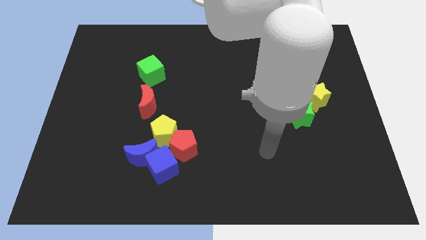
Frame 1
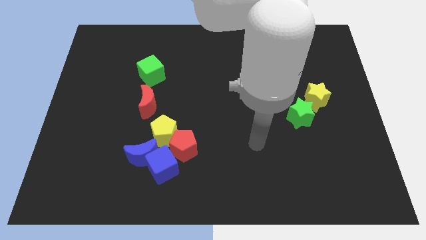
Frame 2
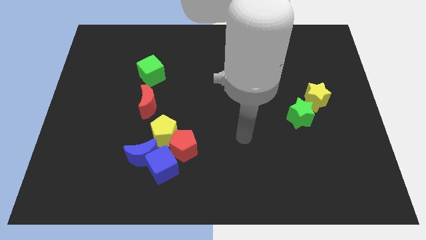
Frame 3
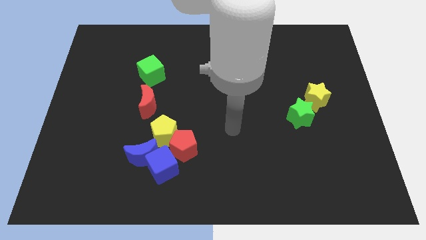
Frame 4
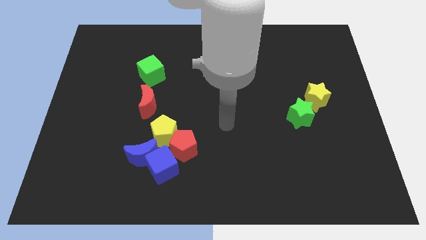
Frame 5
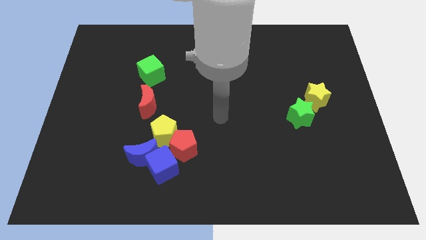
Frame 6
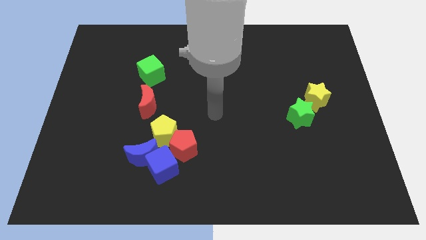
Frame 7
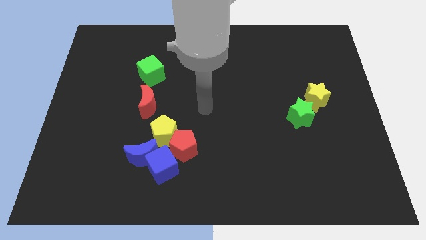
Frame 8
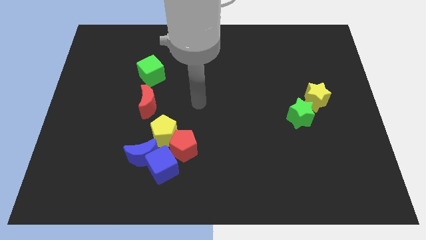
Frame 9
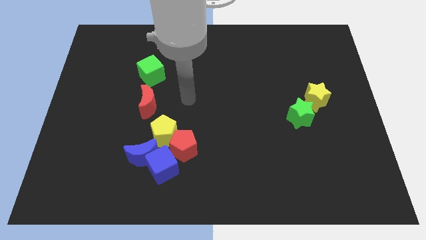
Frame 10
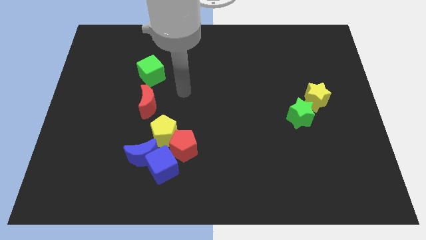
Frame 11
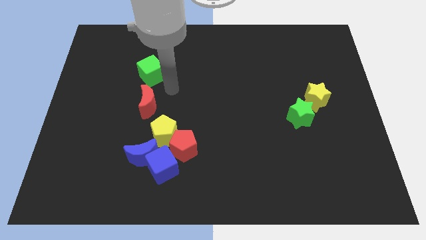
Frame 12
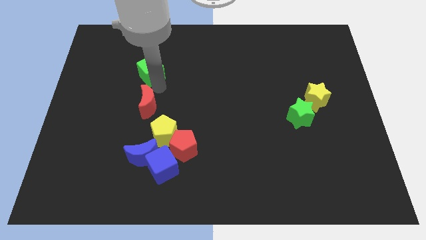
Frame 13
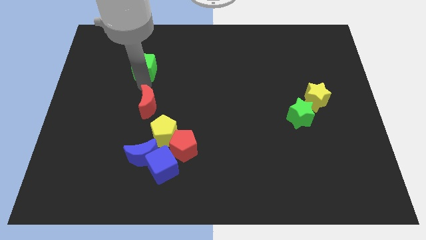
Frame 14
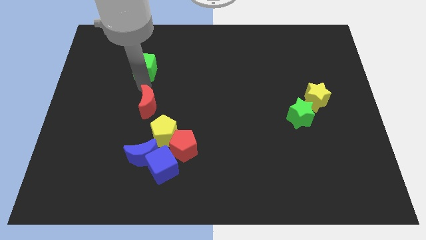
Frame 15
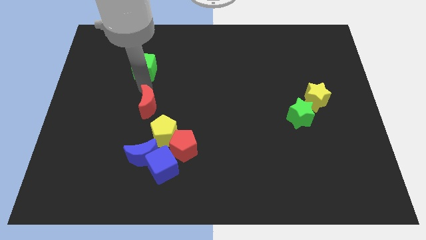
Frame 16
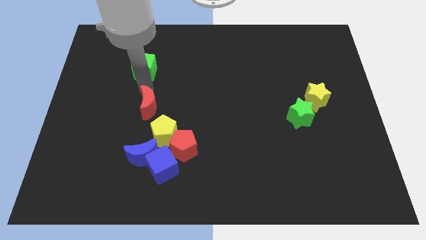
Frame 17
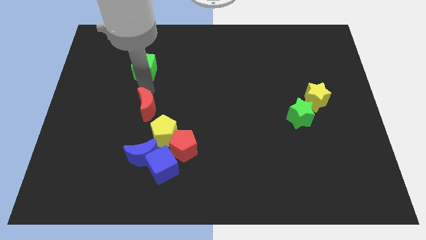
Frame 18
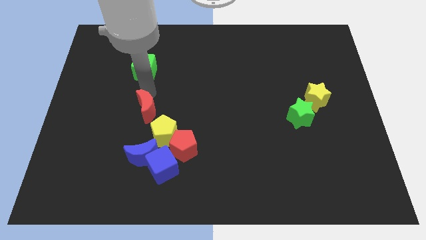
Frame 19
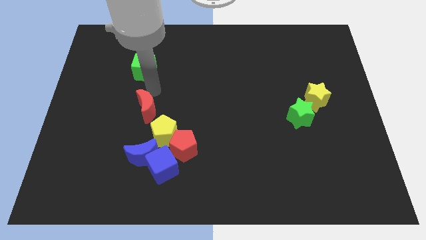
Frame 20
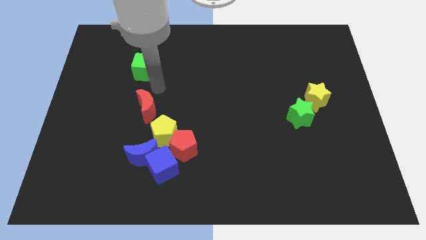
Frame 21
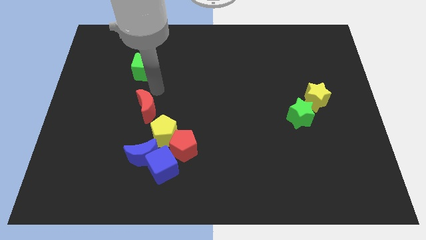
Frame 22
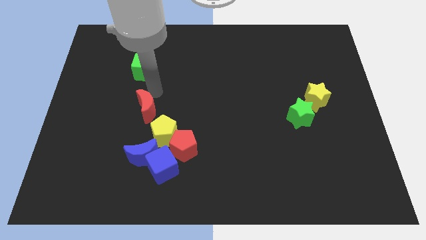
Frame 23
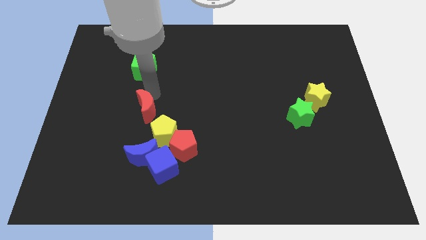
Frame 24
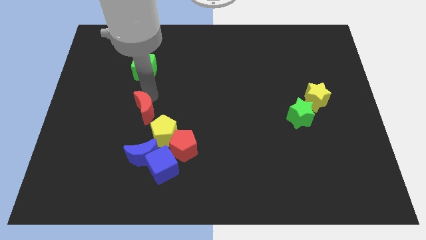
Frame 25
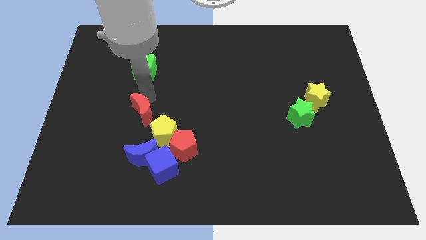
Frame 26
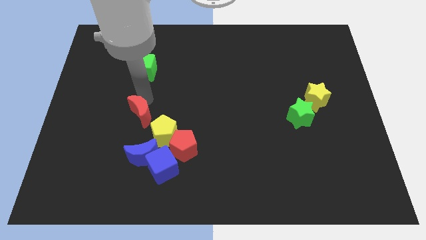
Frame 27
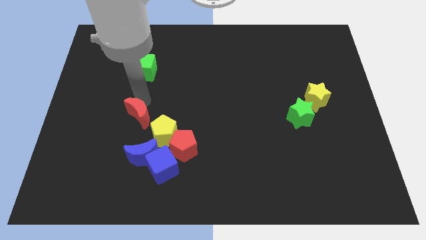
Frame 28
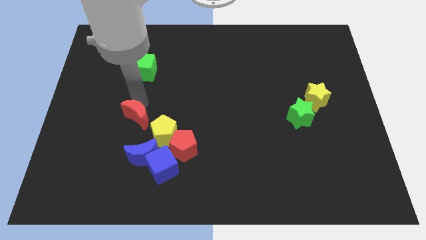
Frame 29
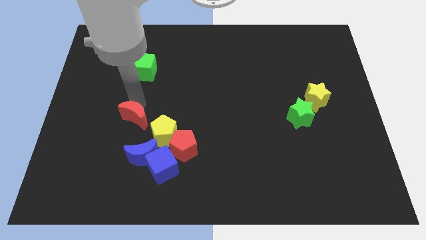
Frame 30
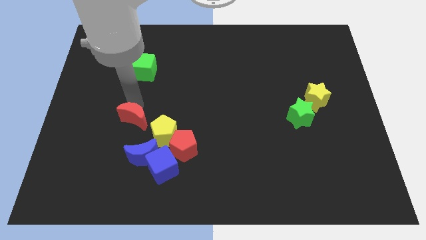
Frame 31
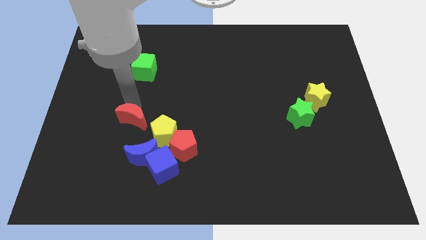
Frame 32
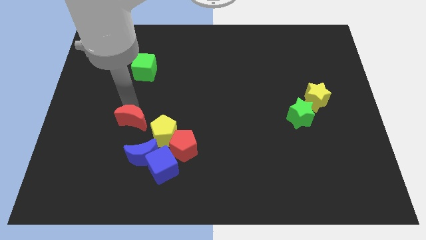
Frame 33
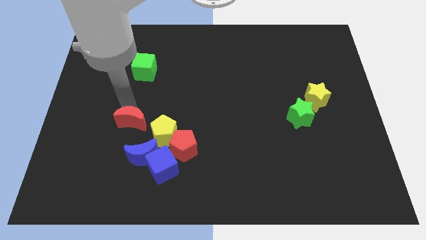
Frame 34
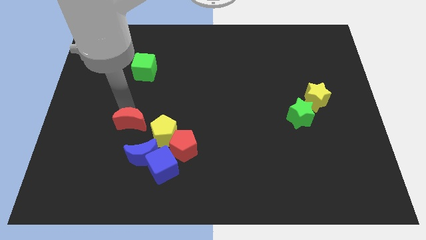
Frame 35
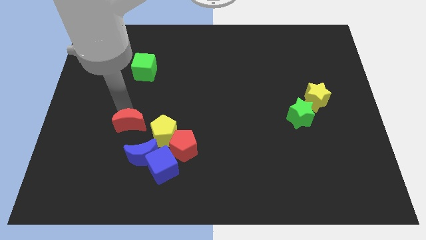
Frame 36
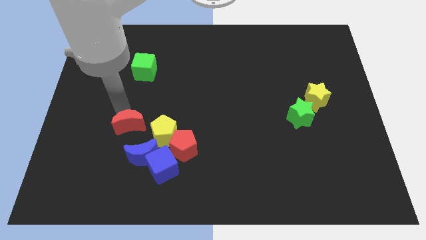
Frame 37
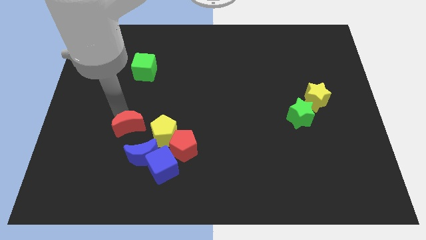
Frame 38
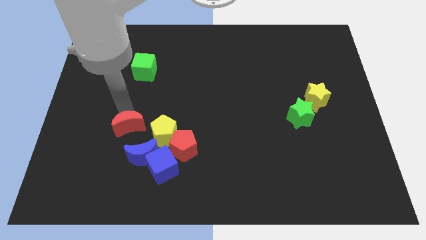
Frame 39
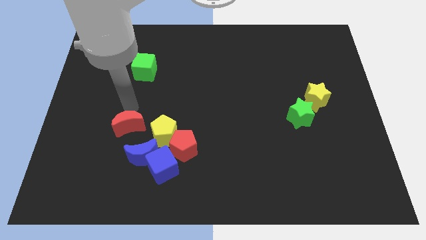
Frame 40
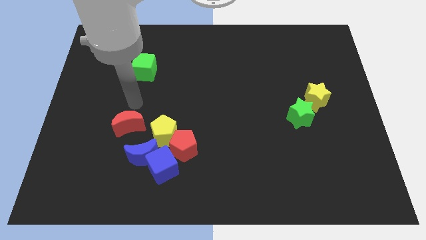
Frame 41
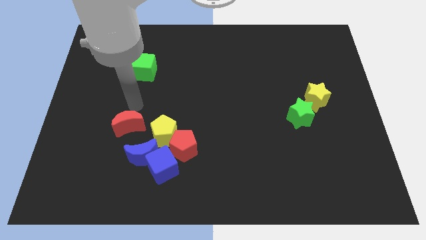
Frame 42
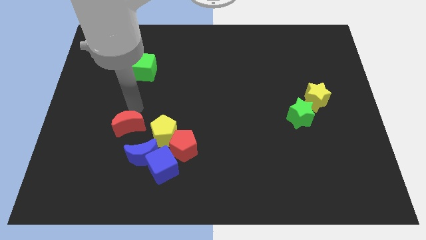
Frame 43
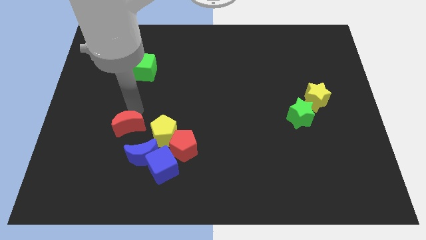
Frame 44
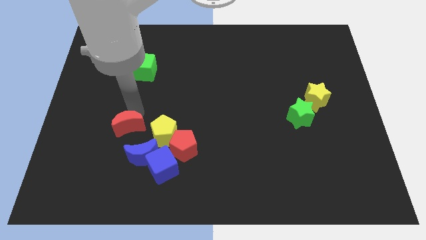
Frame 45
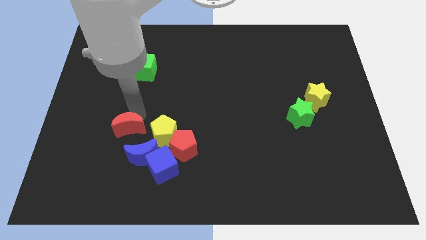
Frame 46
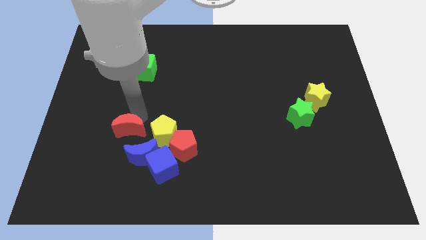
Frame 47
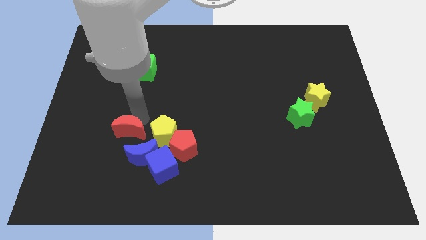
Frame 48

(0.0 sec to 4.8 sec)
move the red moon down a little

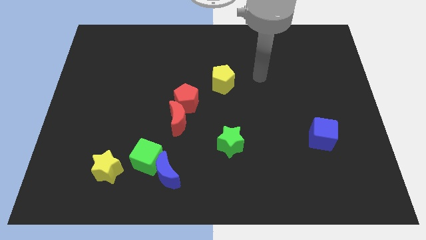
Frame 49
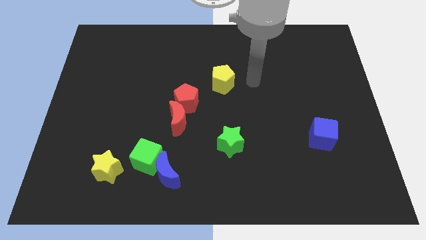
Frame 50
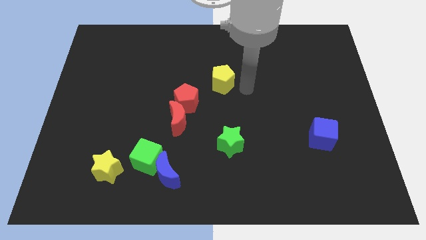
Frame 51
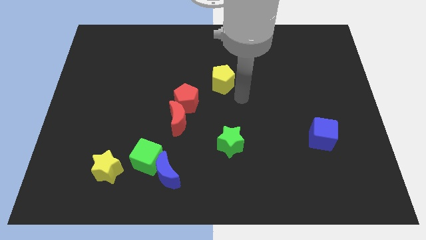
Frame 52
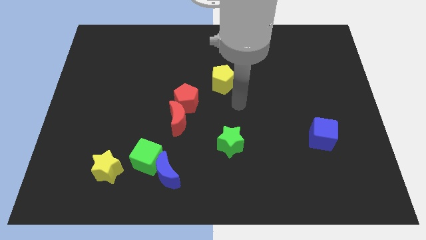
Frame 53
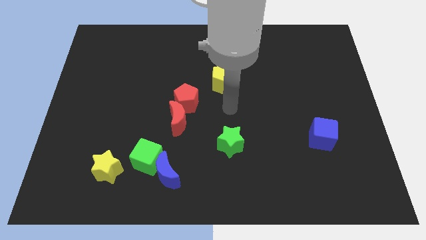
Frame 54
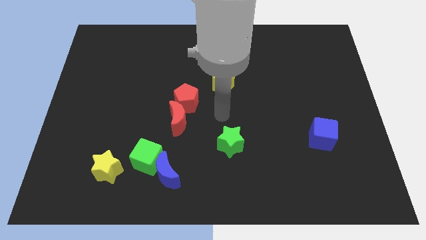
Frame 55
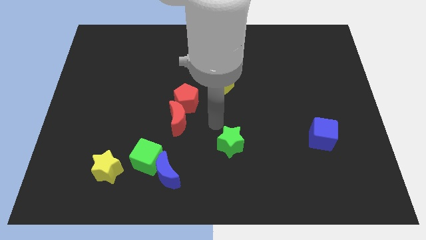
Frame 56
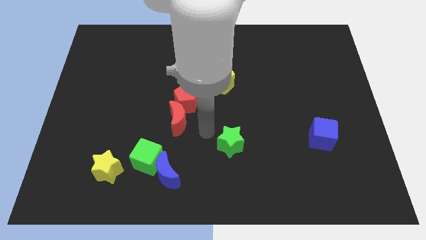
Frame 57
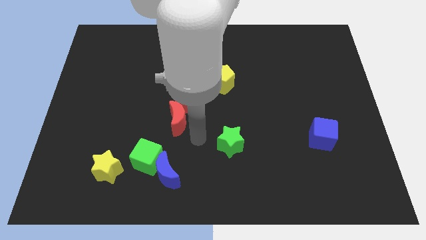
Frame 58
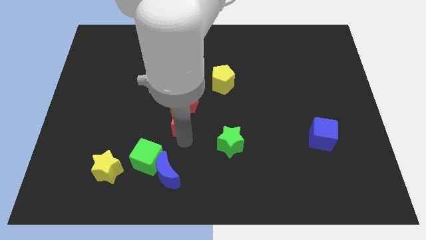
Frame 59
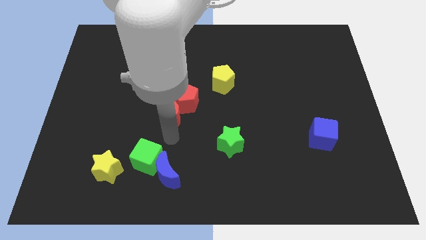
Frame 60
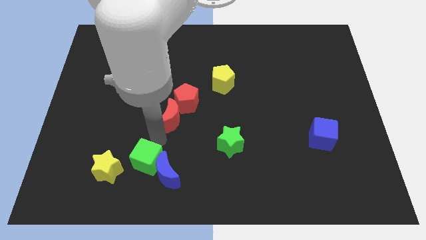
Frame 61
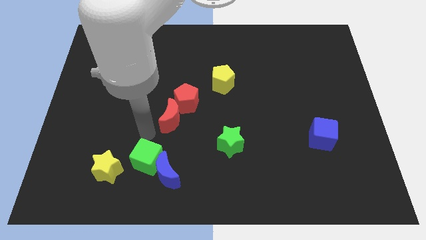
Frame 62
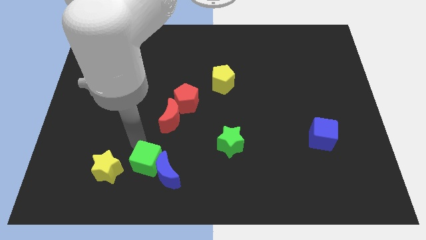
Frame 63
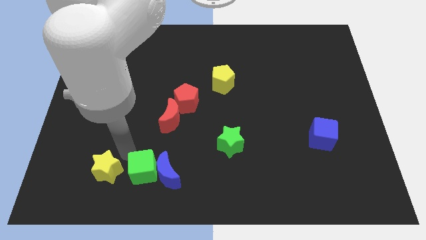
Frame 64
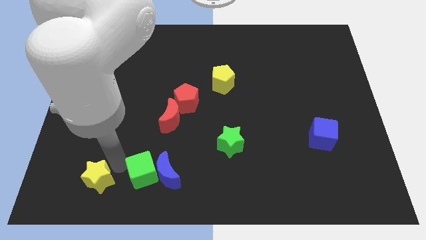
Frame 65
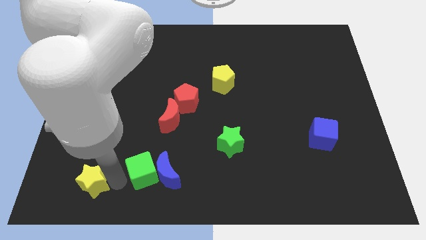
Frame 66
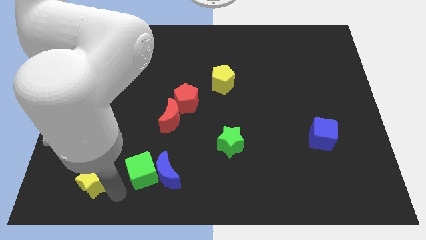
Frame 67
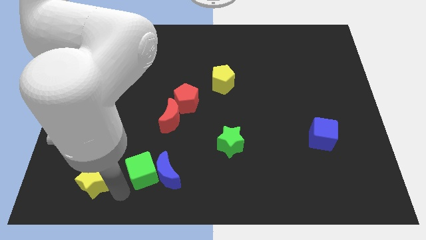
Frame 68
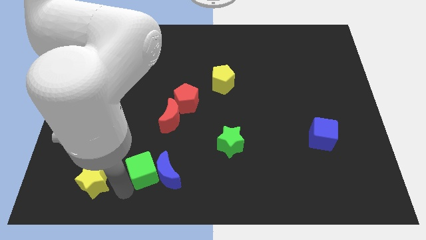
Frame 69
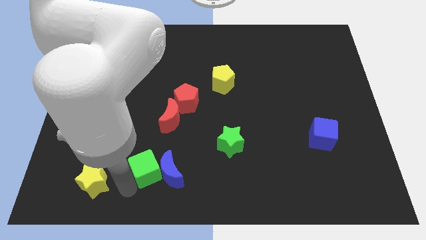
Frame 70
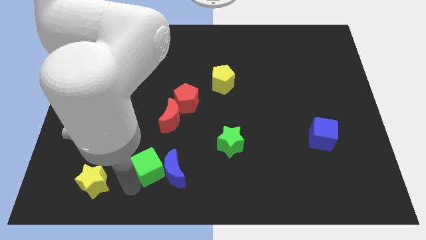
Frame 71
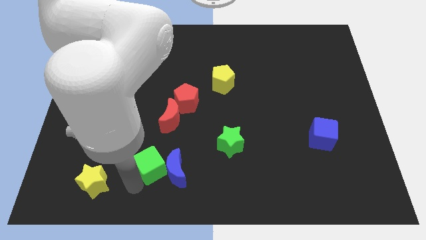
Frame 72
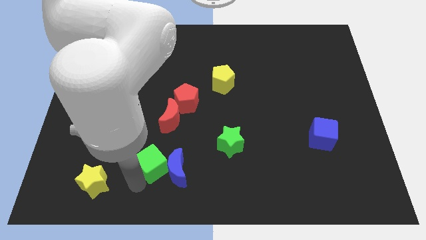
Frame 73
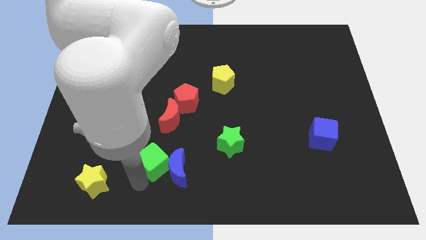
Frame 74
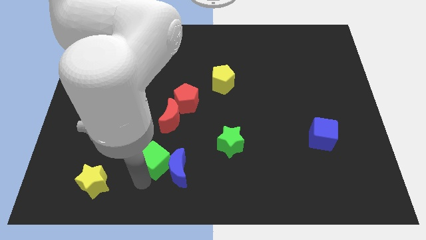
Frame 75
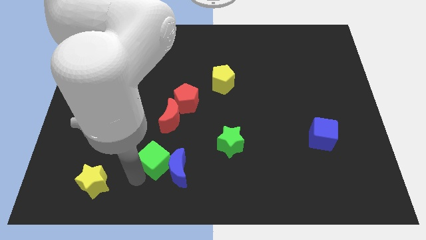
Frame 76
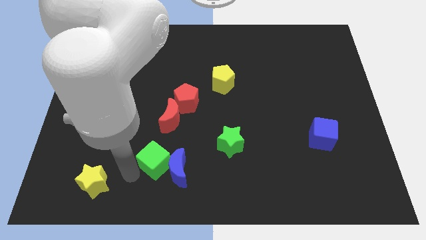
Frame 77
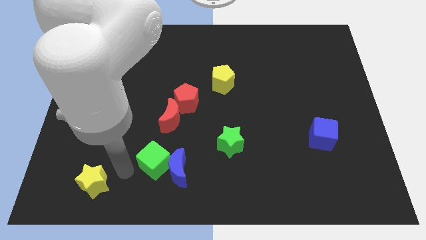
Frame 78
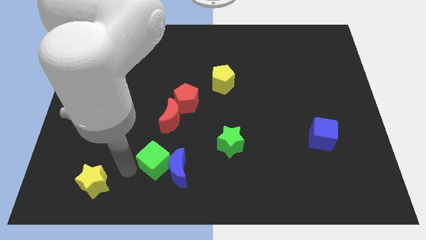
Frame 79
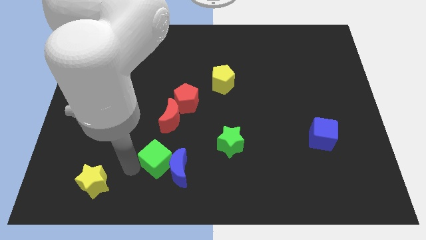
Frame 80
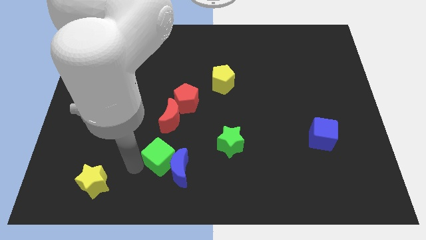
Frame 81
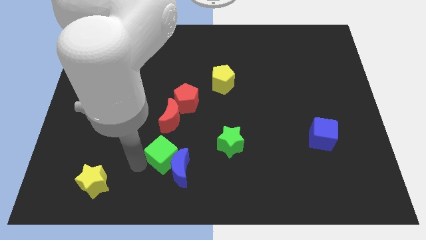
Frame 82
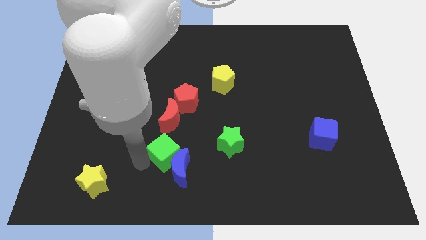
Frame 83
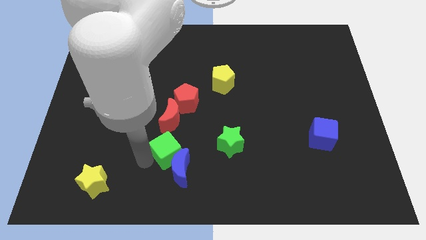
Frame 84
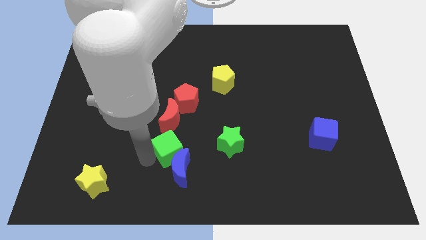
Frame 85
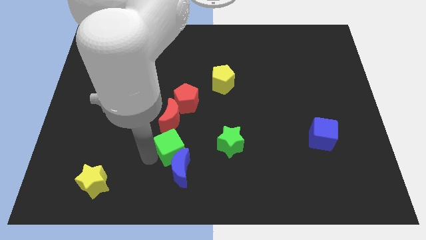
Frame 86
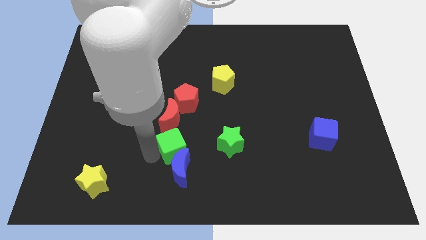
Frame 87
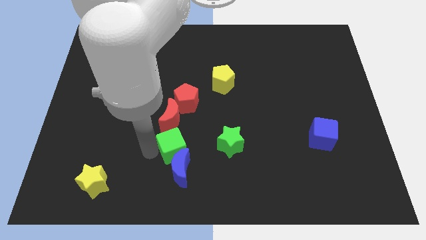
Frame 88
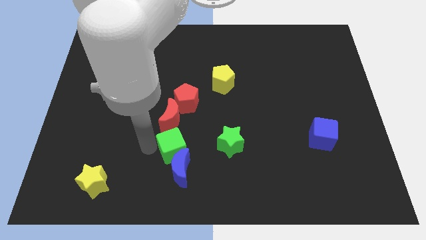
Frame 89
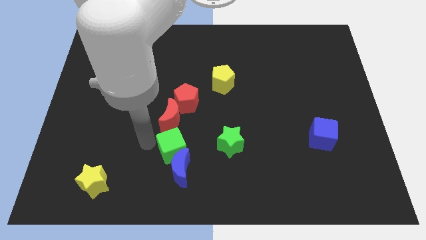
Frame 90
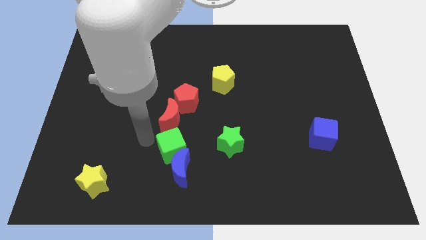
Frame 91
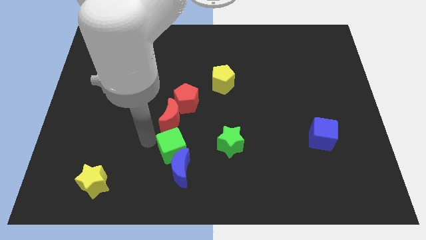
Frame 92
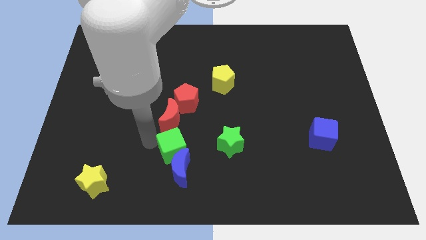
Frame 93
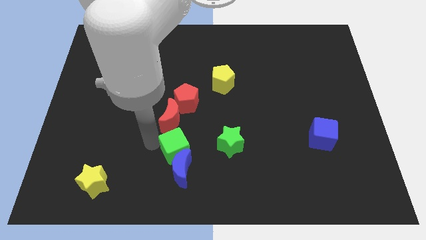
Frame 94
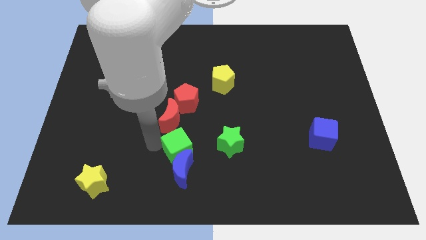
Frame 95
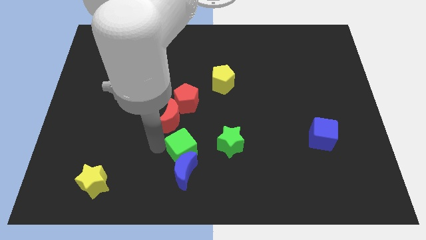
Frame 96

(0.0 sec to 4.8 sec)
slightly slide the green cube to the right
